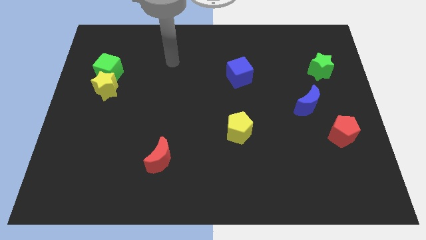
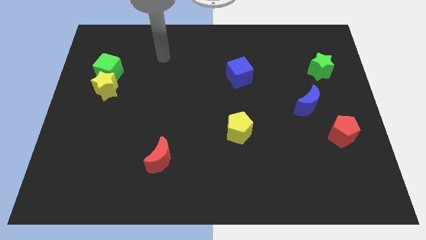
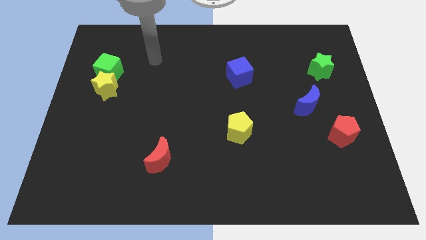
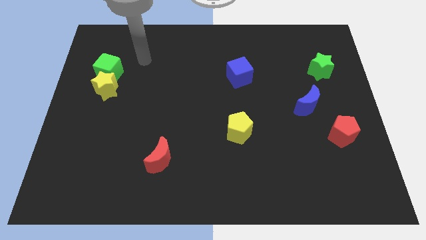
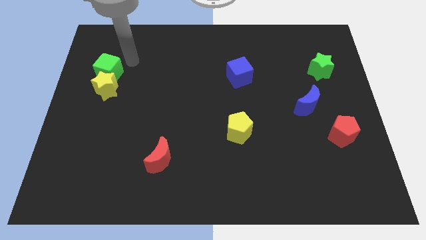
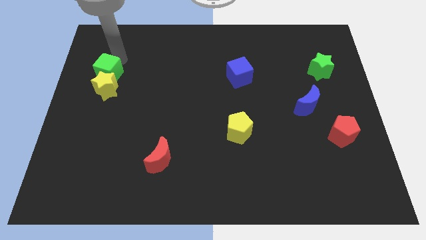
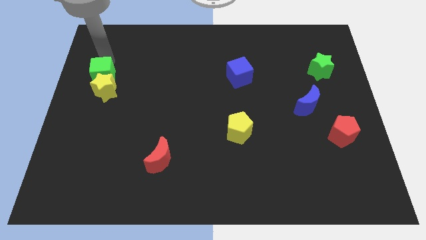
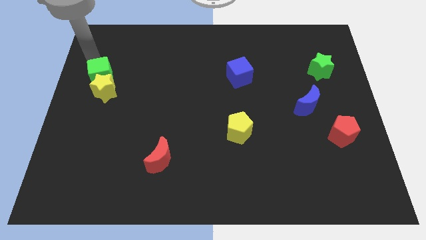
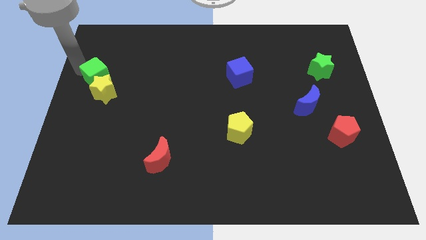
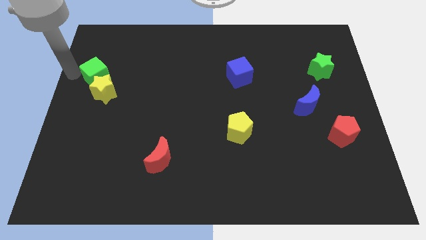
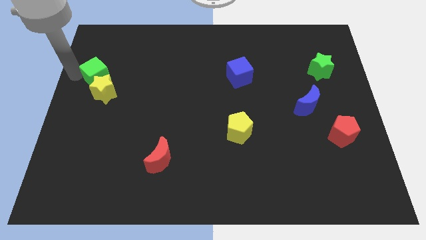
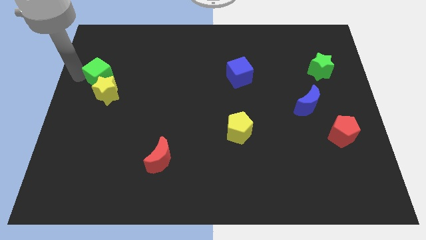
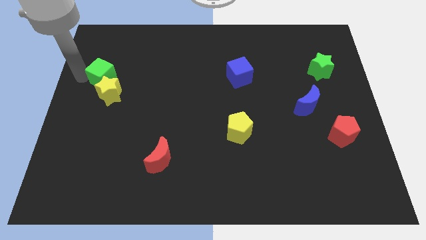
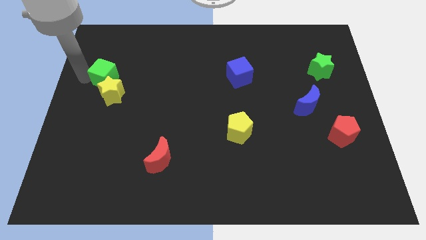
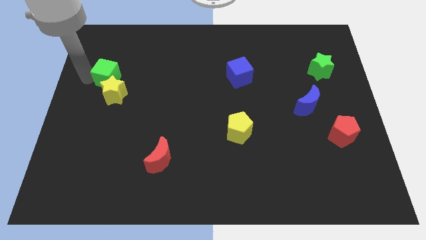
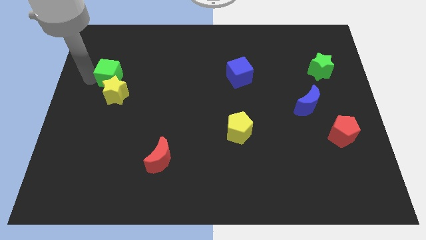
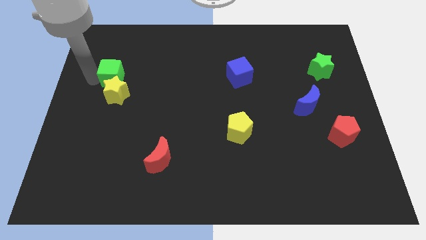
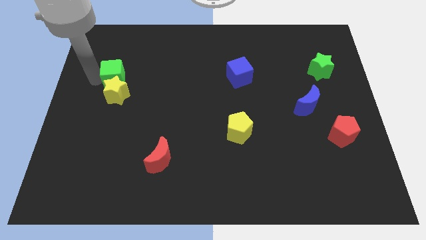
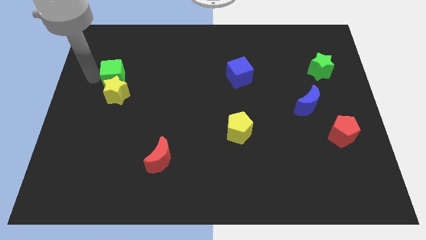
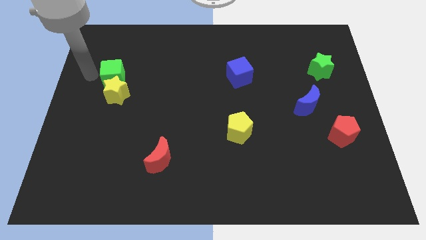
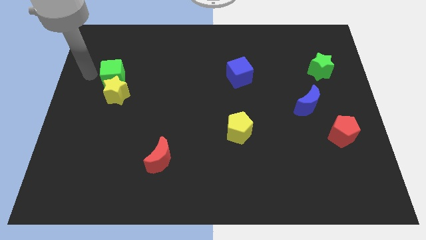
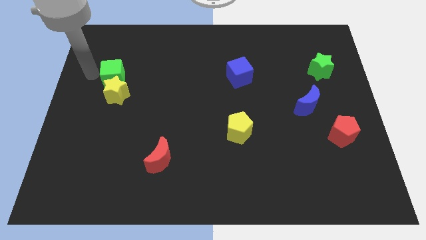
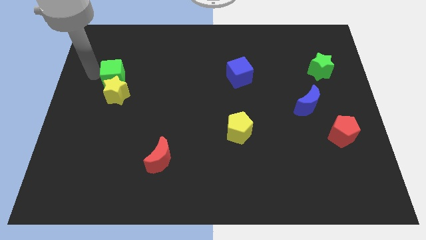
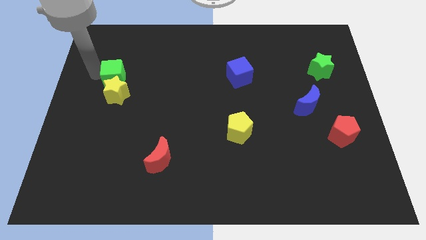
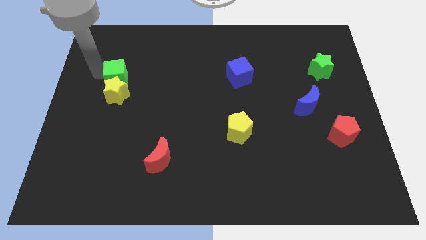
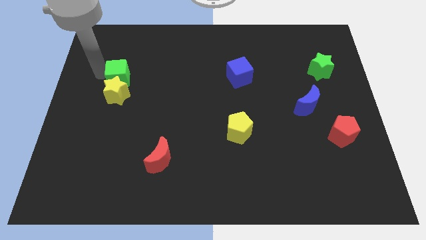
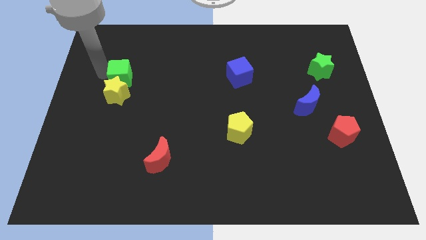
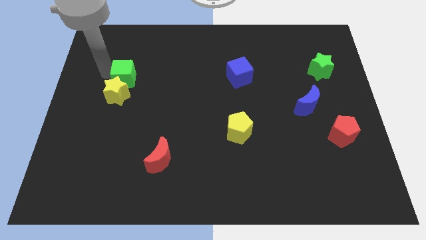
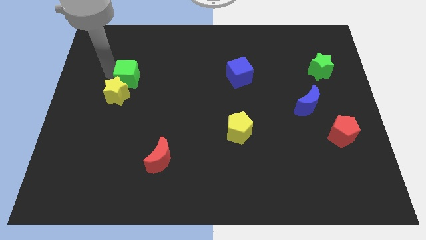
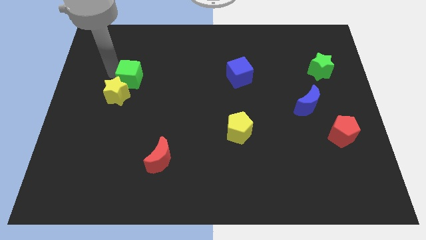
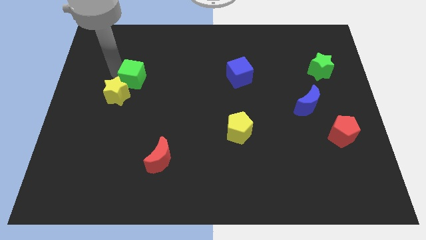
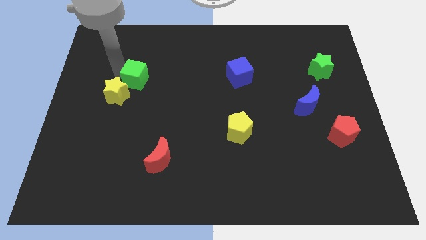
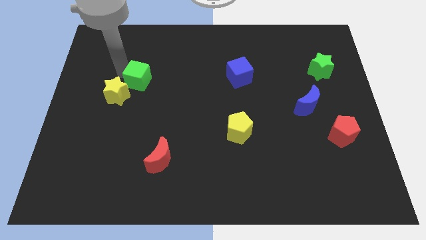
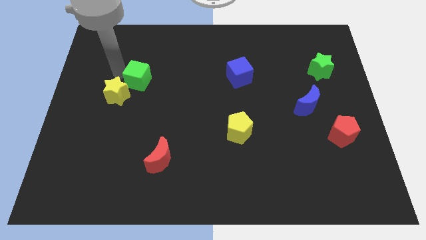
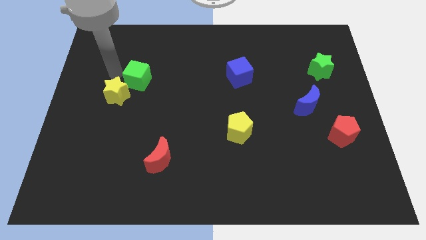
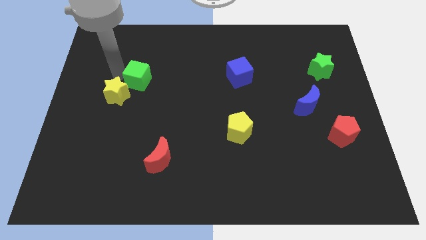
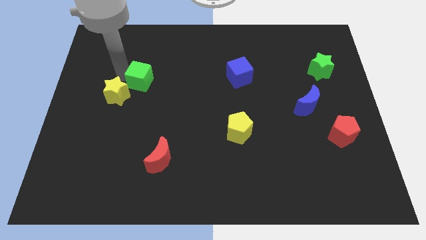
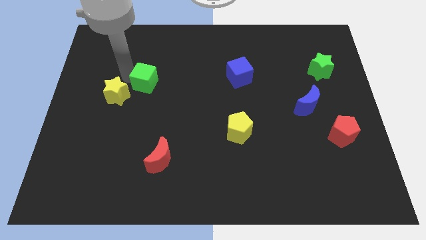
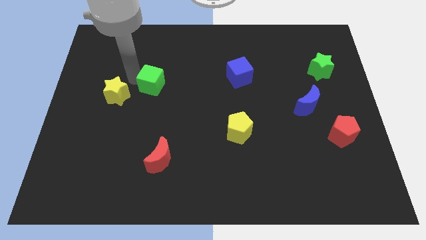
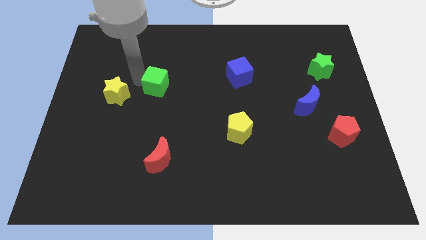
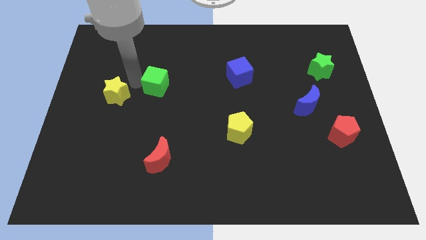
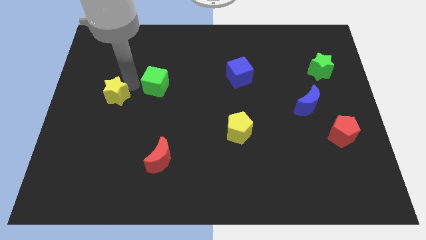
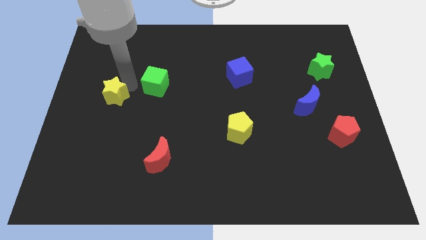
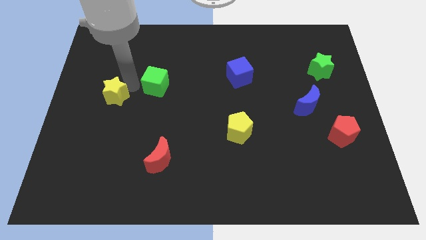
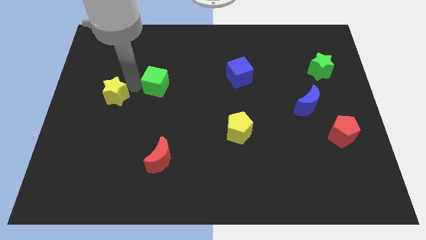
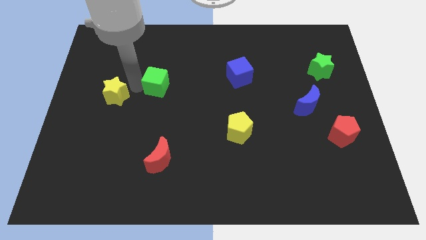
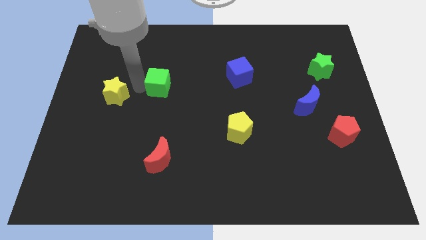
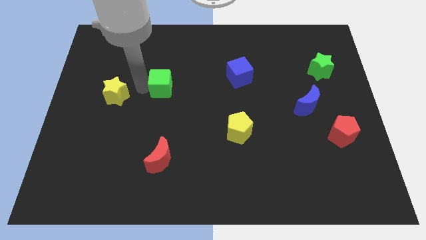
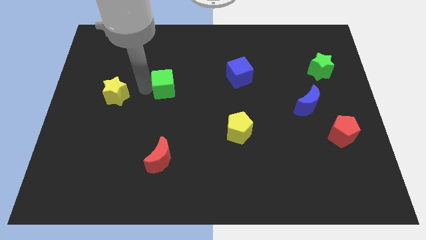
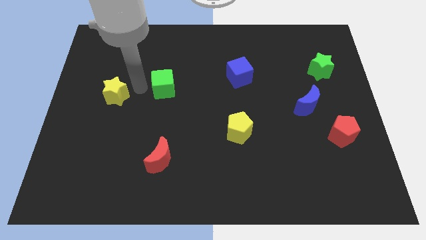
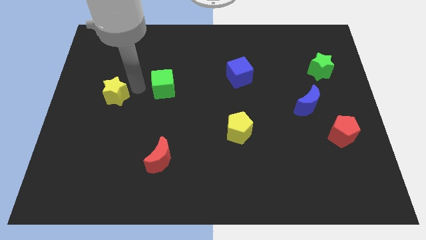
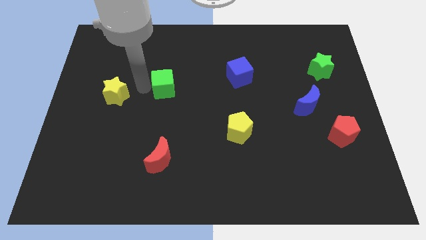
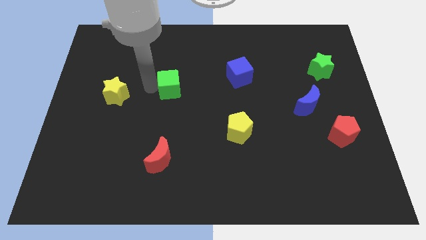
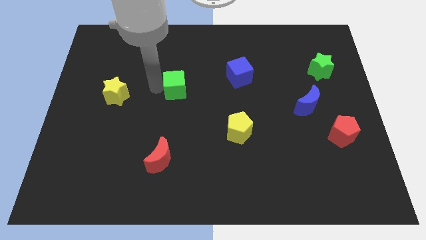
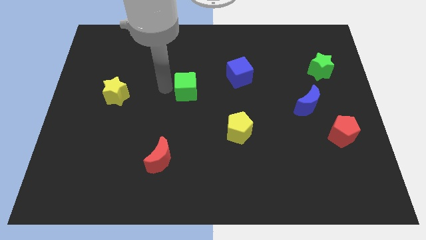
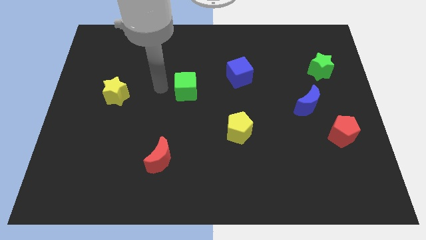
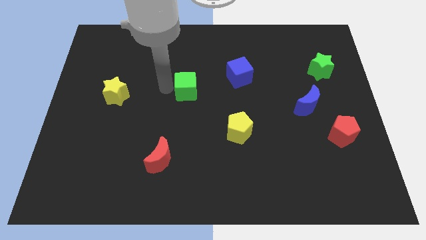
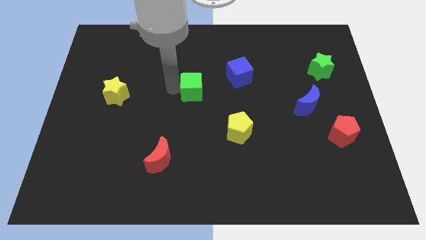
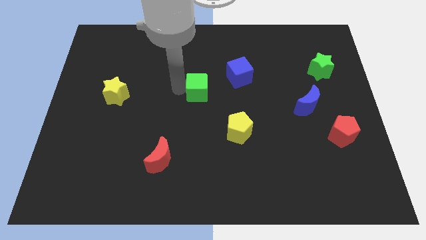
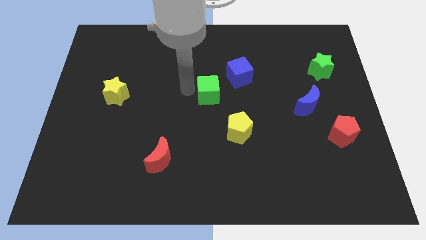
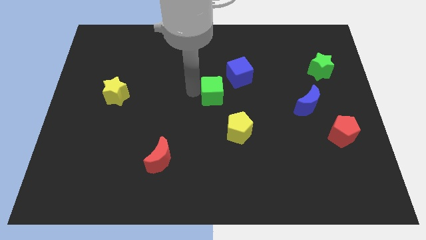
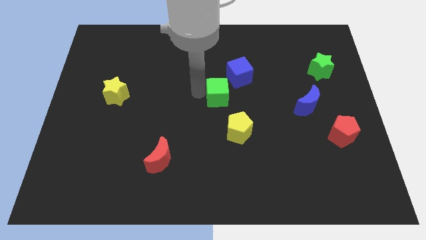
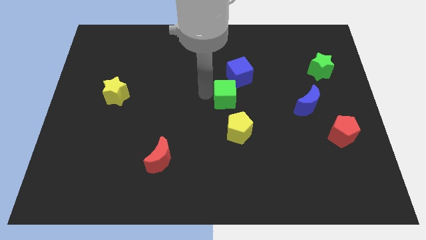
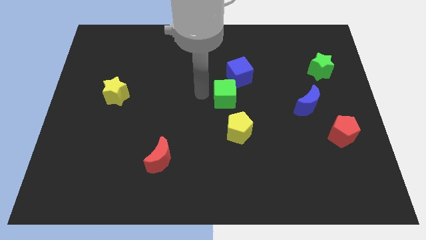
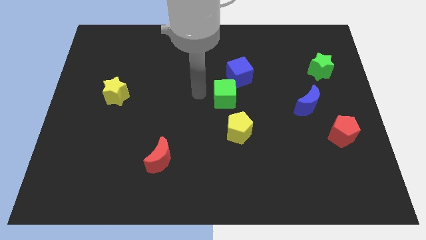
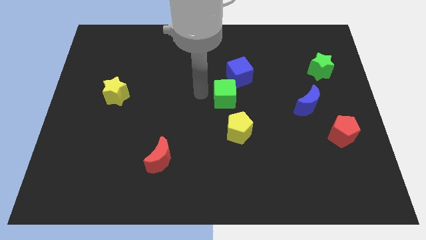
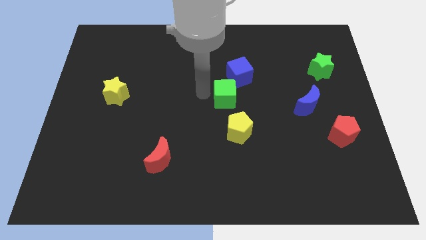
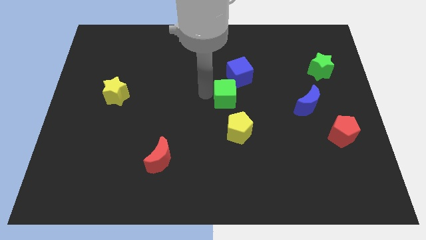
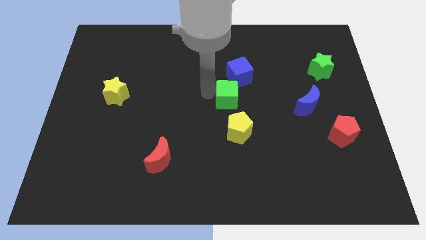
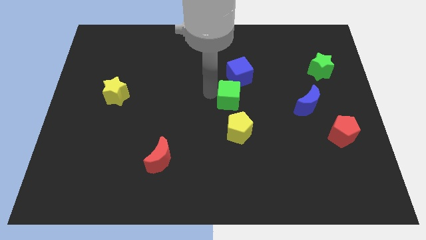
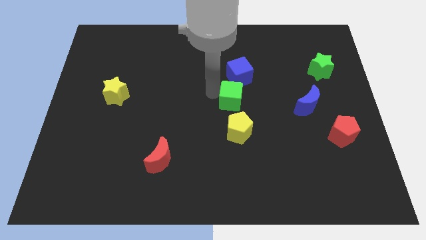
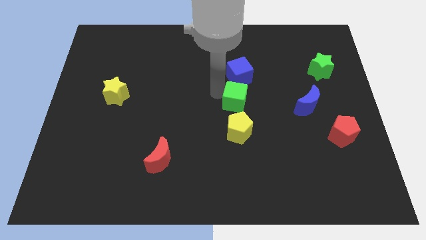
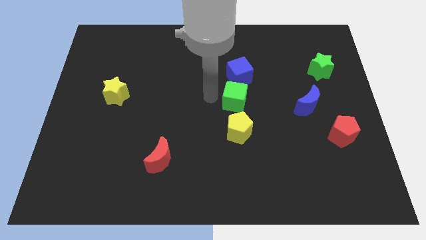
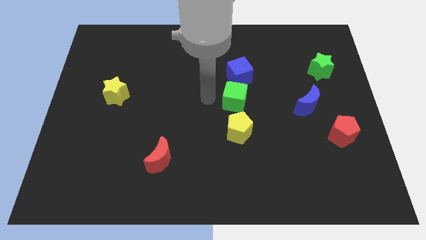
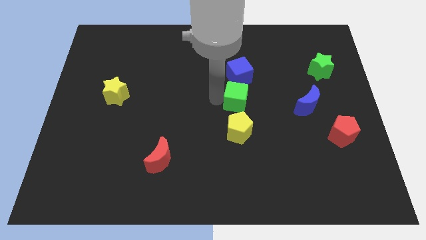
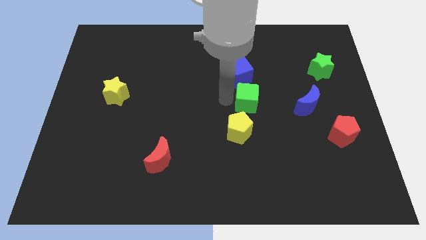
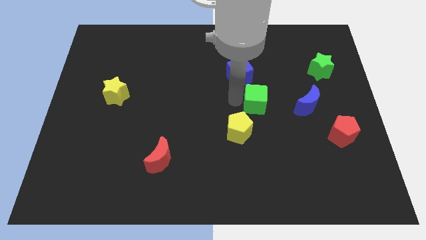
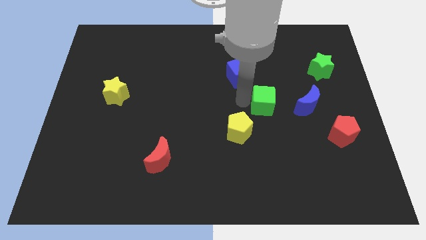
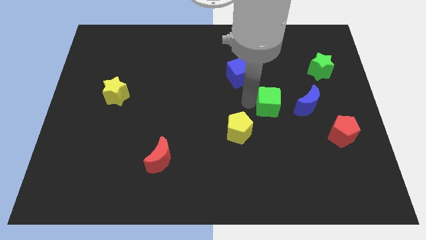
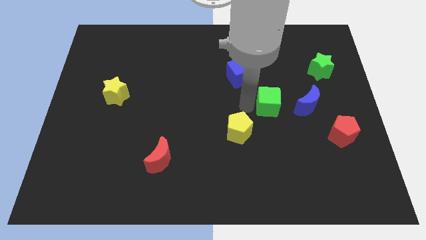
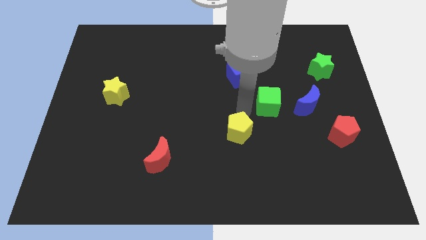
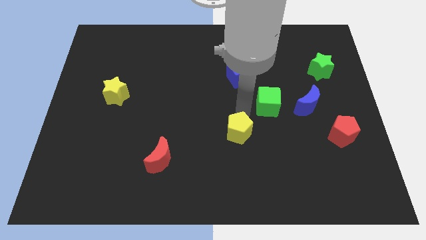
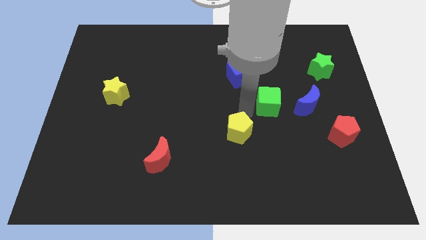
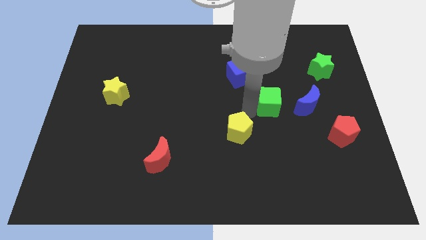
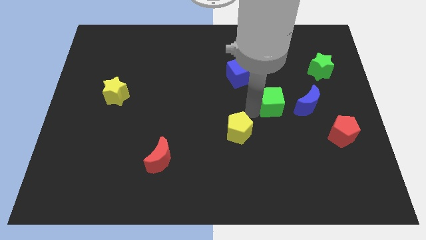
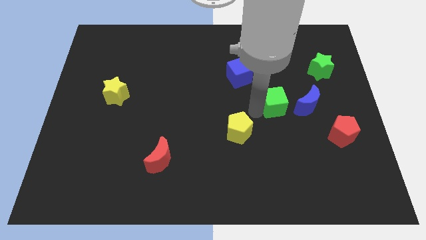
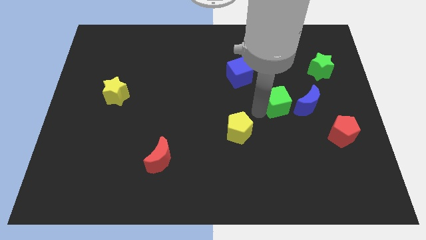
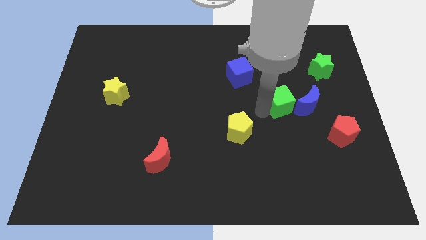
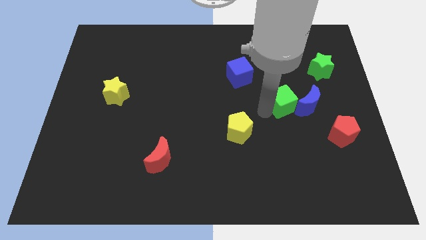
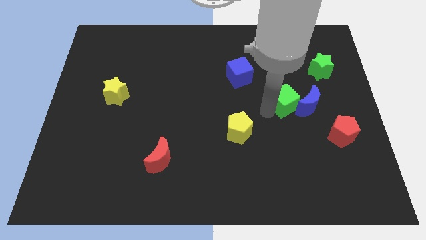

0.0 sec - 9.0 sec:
move the green cube close to the blue moon
